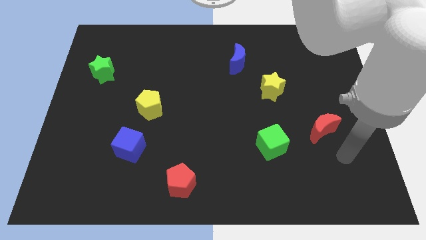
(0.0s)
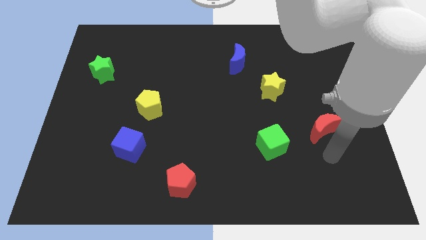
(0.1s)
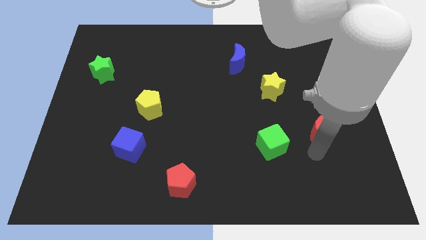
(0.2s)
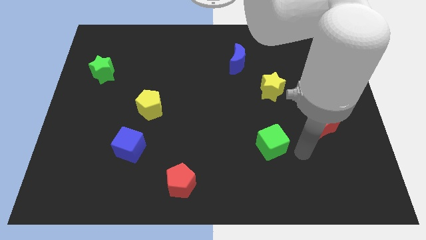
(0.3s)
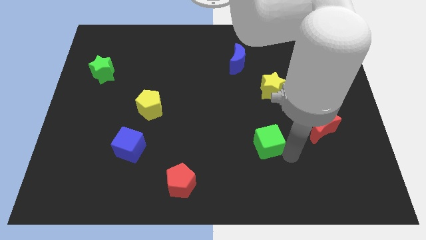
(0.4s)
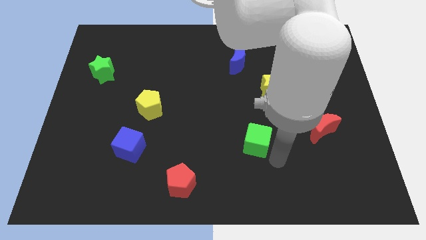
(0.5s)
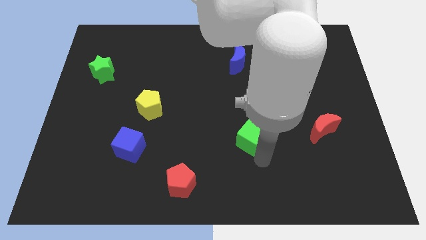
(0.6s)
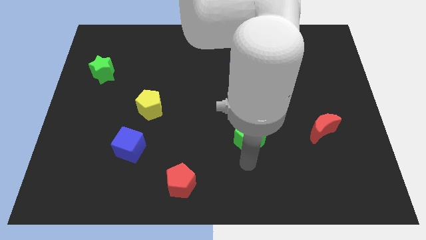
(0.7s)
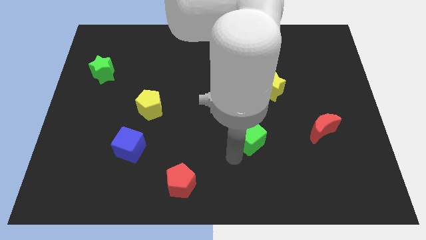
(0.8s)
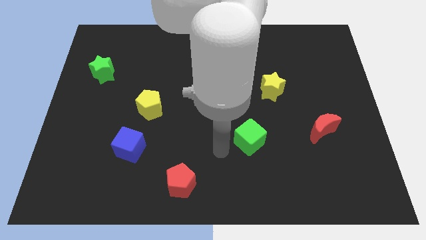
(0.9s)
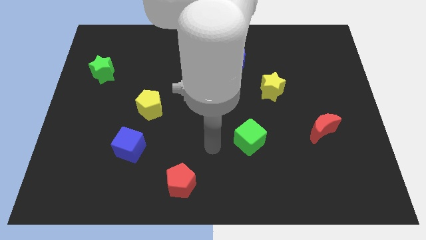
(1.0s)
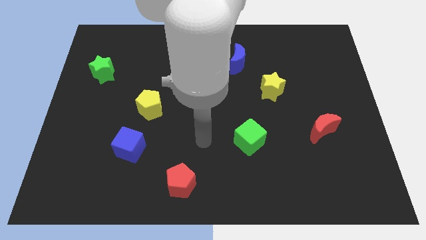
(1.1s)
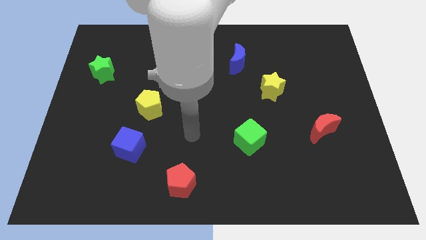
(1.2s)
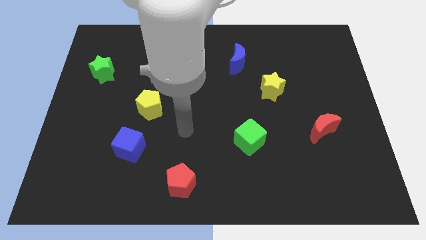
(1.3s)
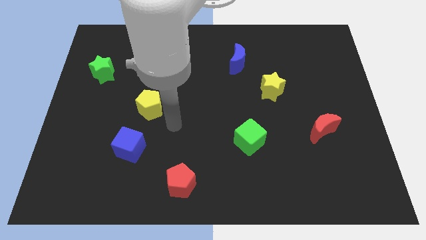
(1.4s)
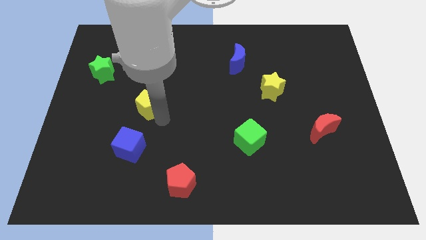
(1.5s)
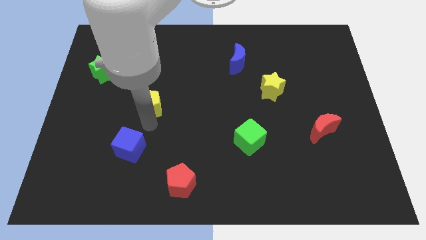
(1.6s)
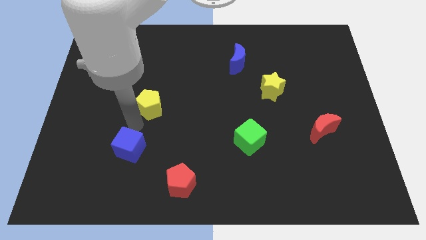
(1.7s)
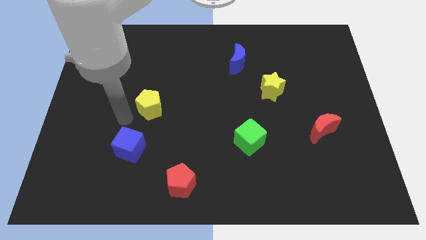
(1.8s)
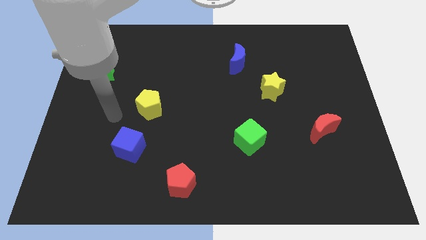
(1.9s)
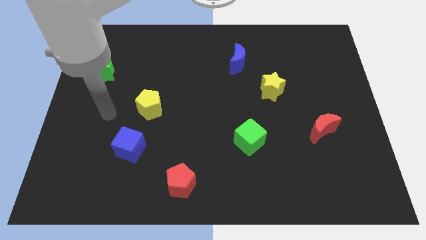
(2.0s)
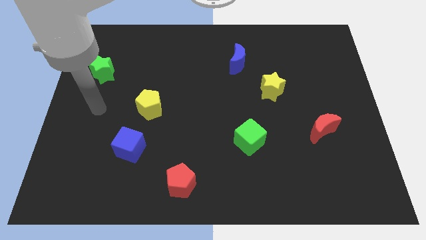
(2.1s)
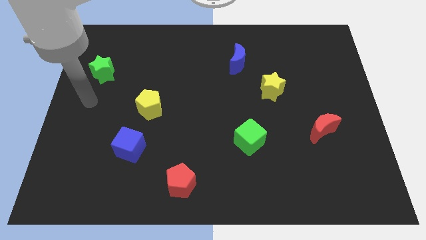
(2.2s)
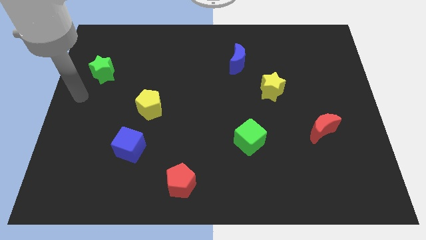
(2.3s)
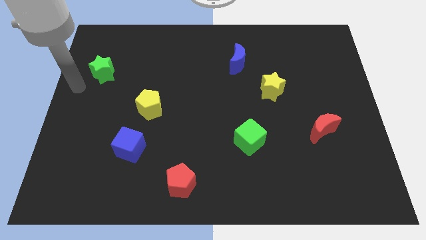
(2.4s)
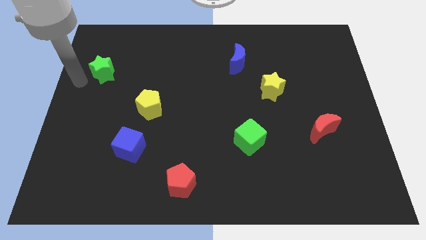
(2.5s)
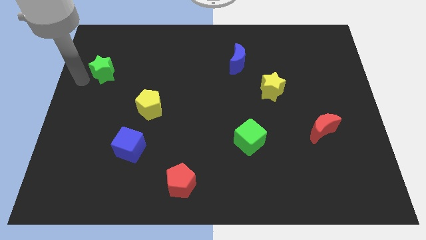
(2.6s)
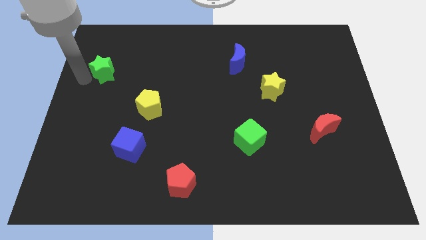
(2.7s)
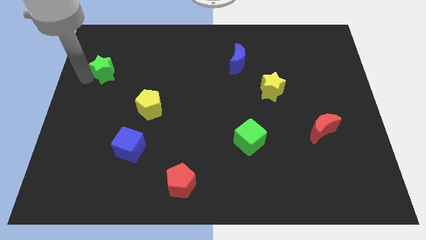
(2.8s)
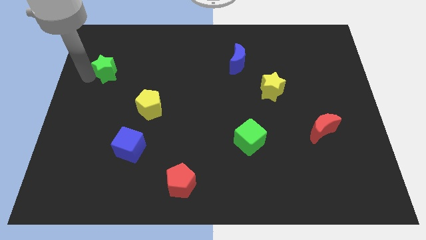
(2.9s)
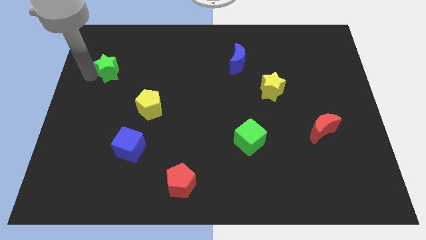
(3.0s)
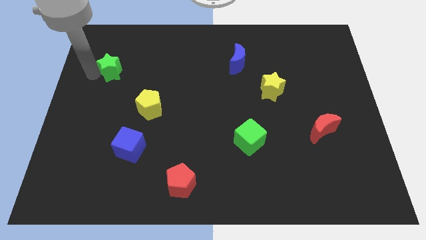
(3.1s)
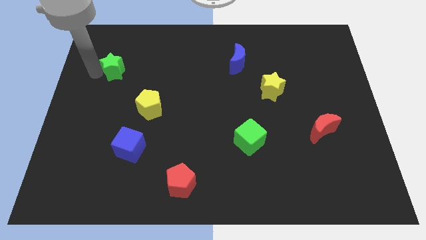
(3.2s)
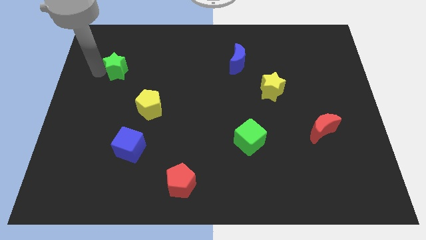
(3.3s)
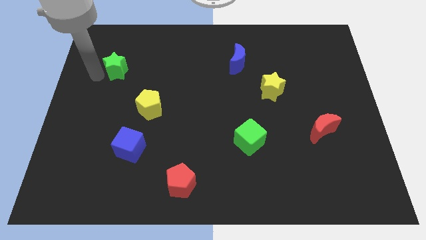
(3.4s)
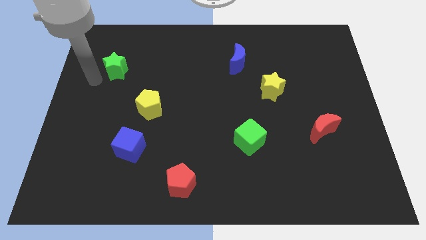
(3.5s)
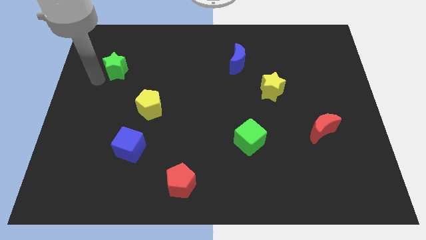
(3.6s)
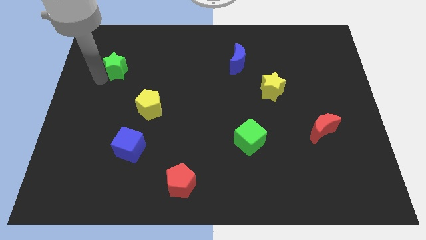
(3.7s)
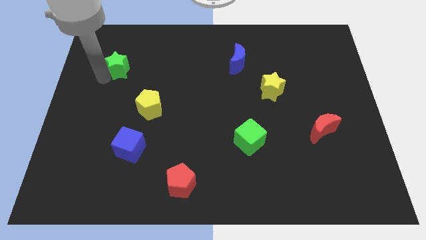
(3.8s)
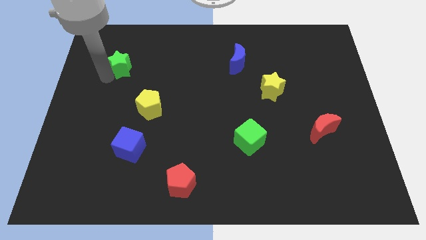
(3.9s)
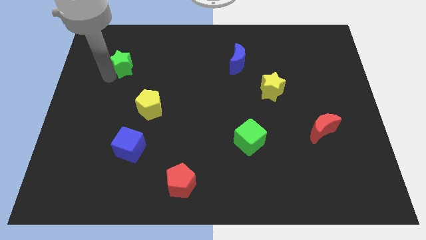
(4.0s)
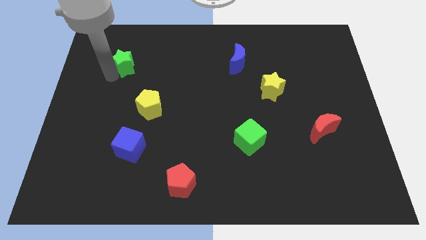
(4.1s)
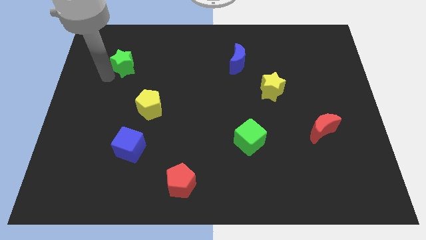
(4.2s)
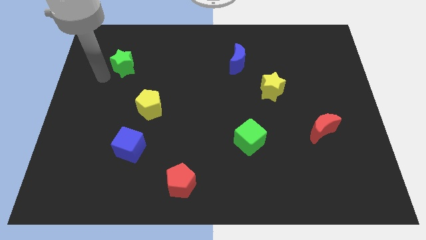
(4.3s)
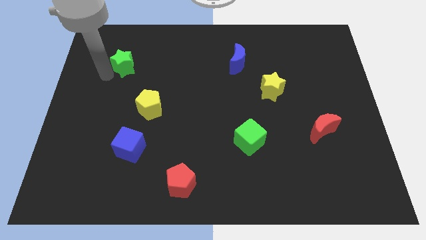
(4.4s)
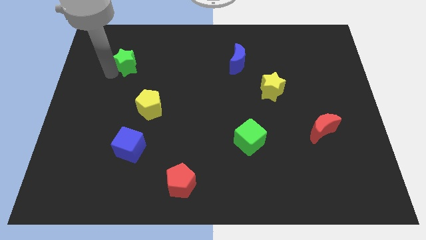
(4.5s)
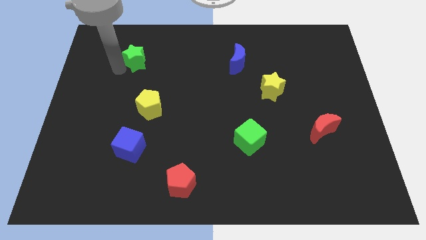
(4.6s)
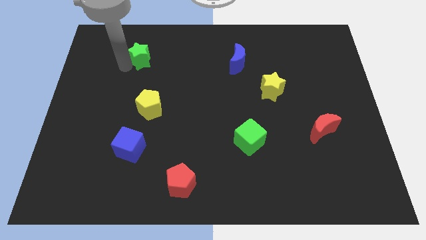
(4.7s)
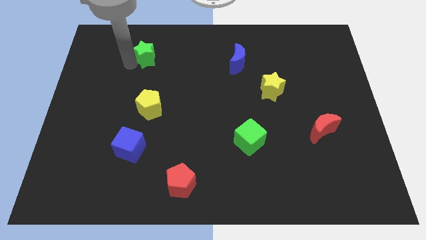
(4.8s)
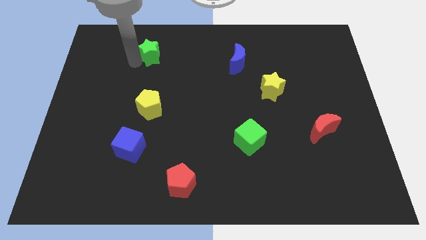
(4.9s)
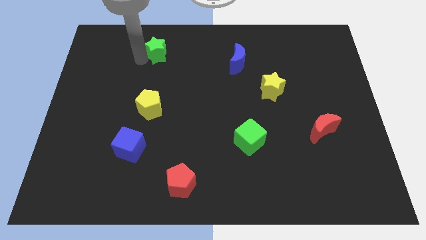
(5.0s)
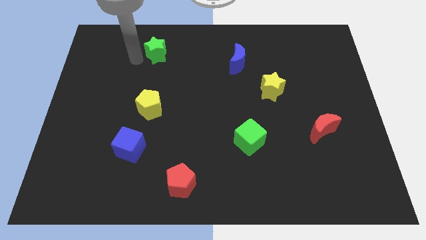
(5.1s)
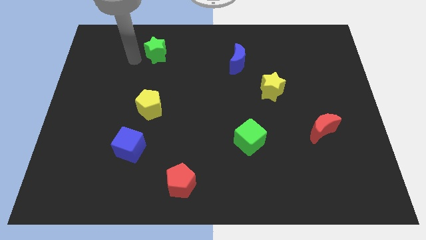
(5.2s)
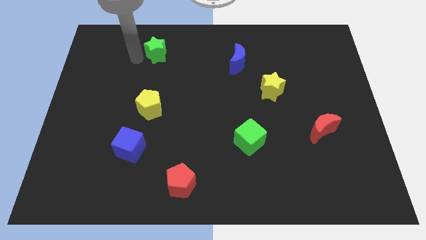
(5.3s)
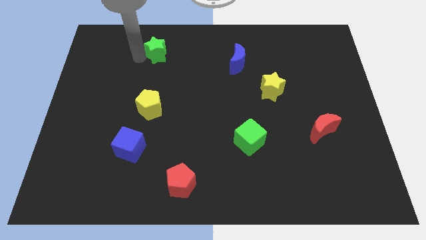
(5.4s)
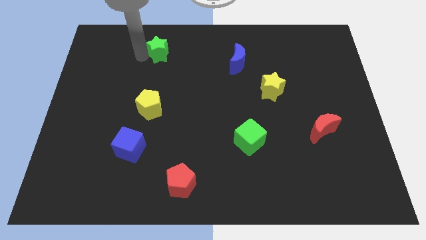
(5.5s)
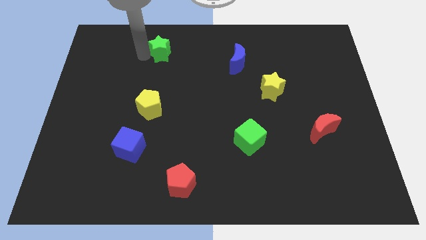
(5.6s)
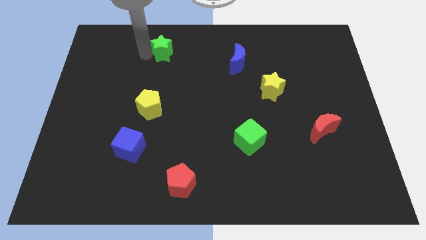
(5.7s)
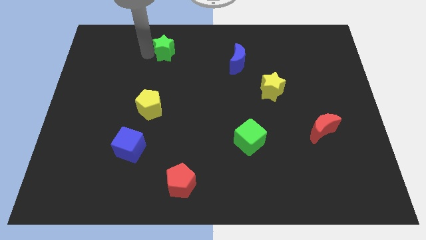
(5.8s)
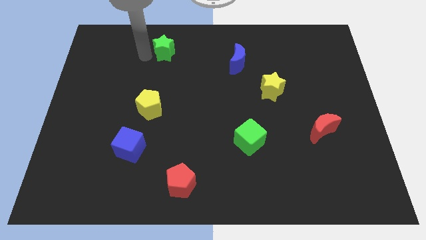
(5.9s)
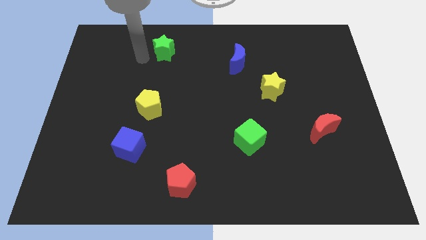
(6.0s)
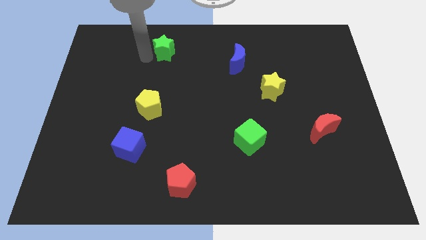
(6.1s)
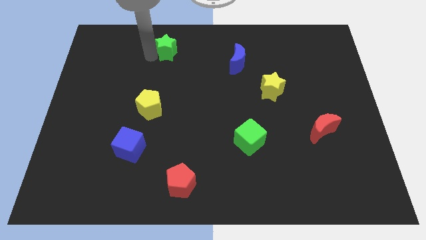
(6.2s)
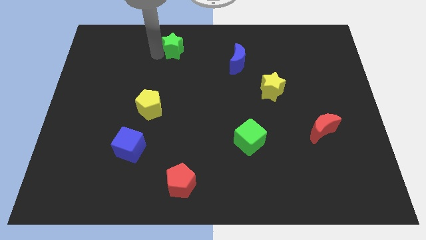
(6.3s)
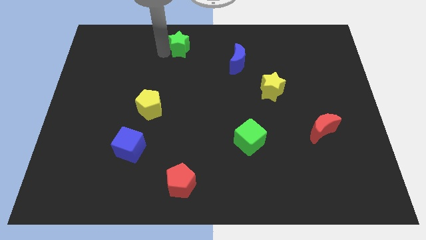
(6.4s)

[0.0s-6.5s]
slide the green star to the top side
